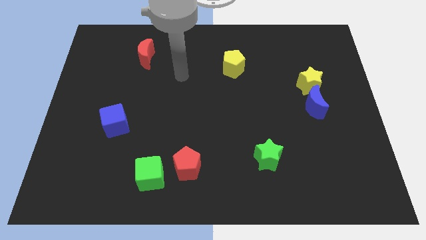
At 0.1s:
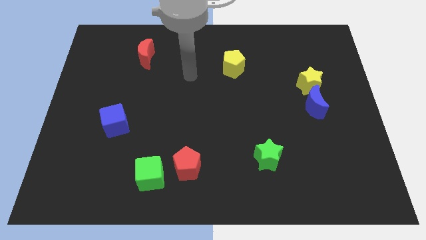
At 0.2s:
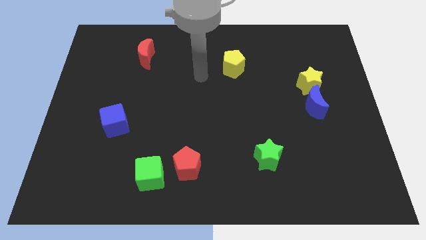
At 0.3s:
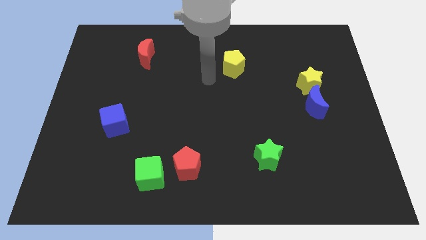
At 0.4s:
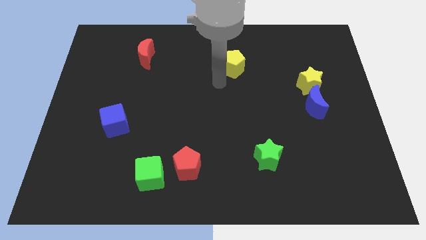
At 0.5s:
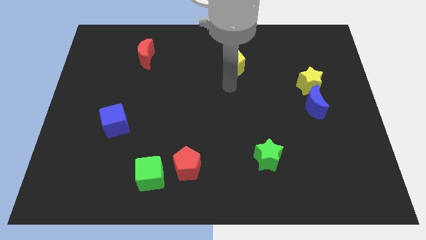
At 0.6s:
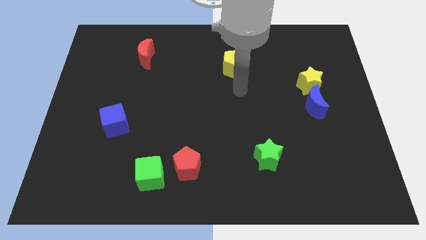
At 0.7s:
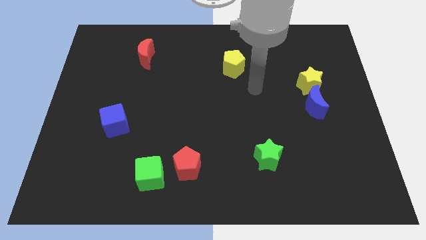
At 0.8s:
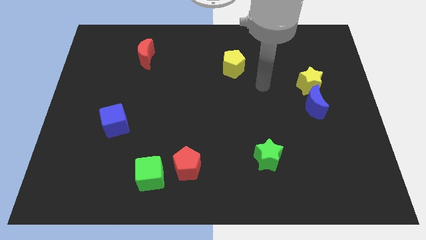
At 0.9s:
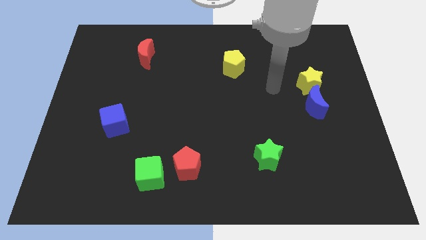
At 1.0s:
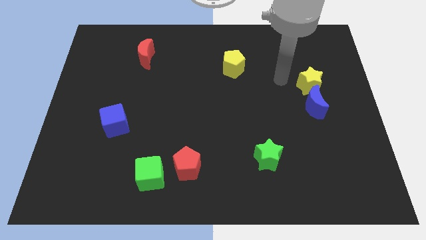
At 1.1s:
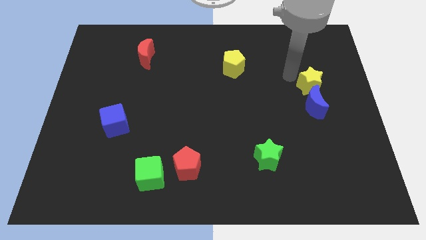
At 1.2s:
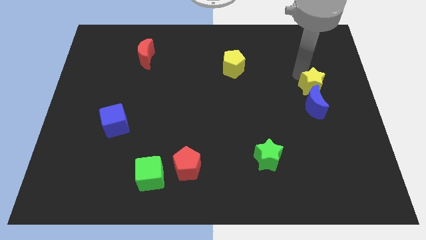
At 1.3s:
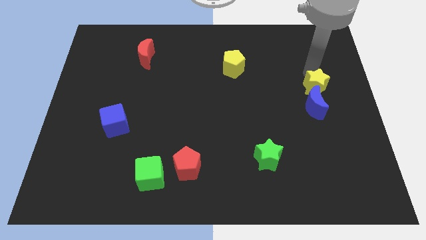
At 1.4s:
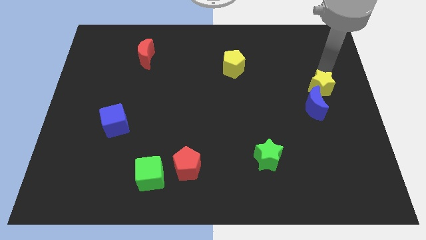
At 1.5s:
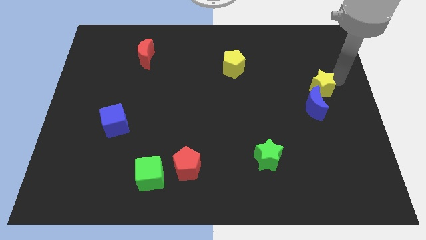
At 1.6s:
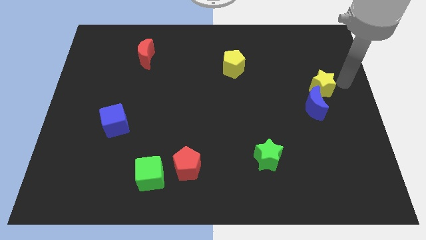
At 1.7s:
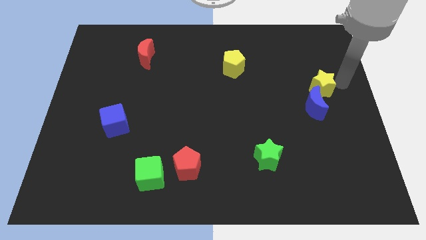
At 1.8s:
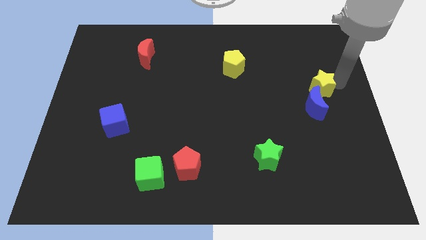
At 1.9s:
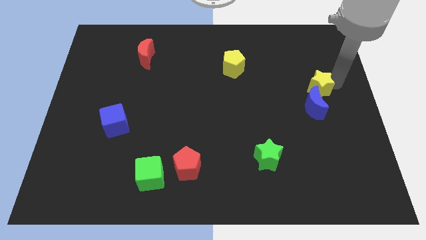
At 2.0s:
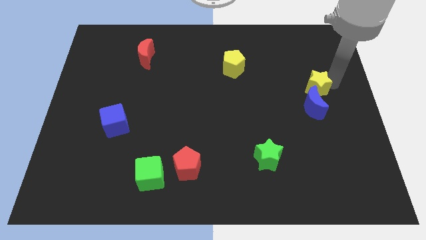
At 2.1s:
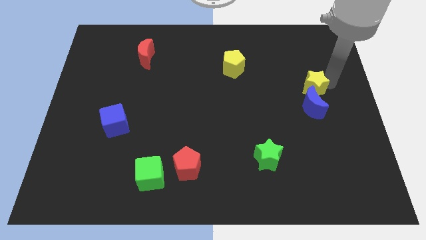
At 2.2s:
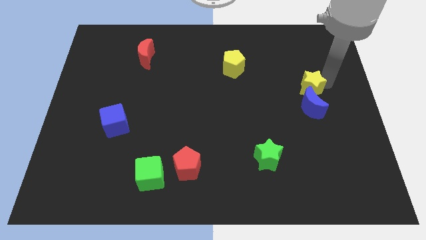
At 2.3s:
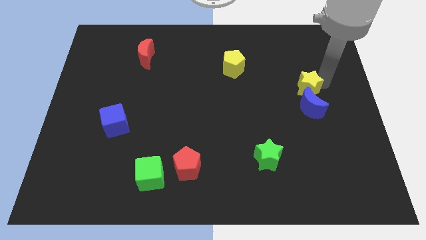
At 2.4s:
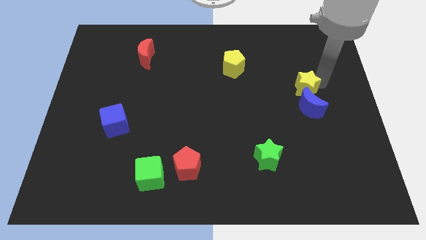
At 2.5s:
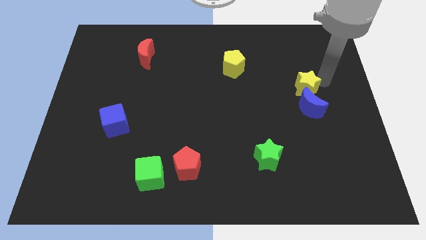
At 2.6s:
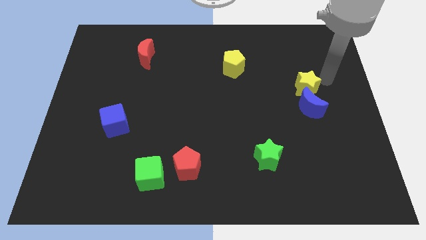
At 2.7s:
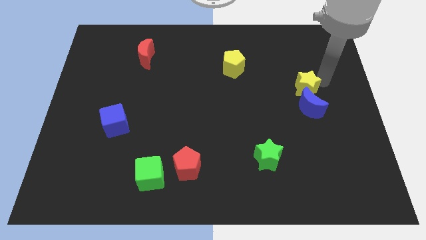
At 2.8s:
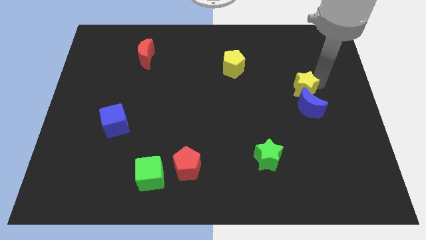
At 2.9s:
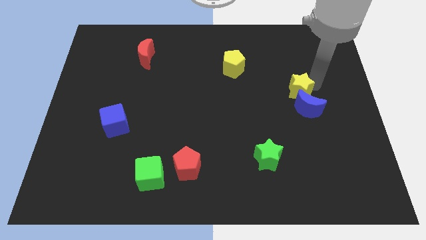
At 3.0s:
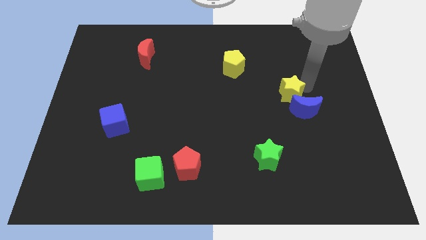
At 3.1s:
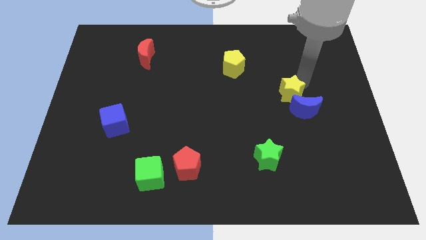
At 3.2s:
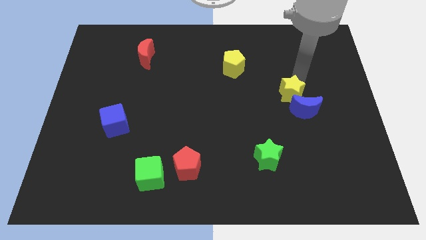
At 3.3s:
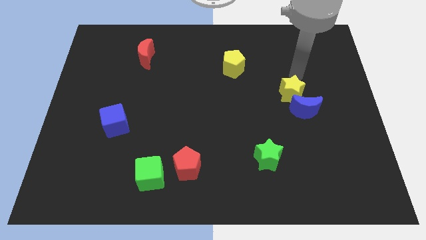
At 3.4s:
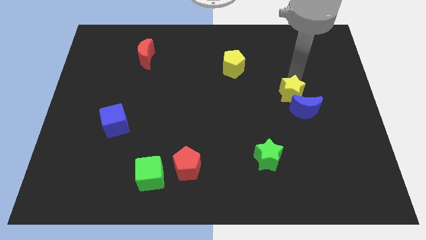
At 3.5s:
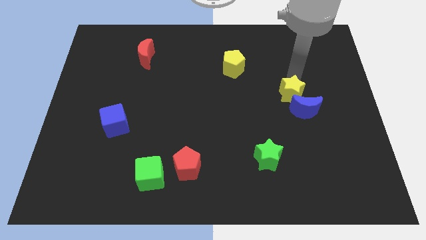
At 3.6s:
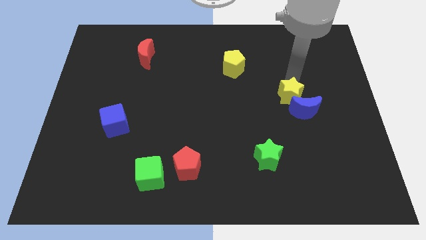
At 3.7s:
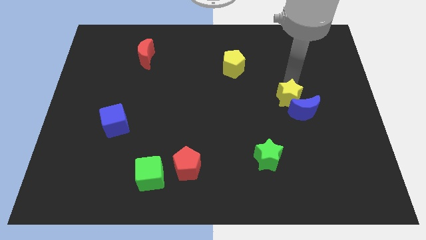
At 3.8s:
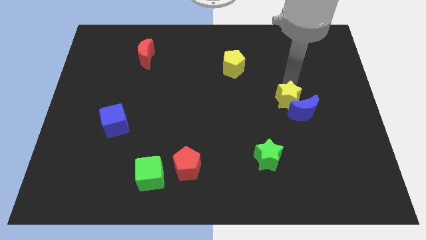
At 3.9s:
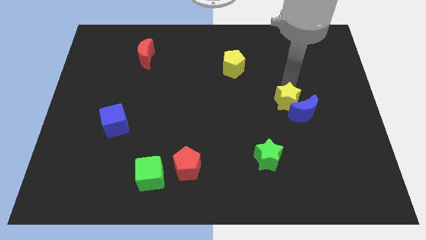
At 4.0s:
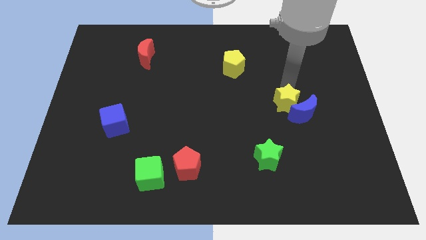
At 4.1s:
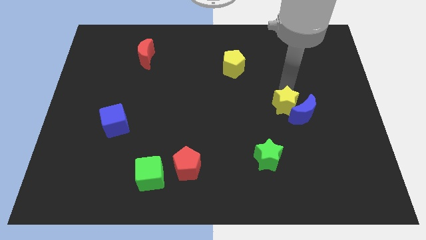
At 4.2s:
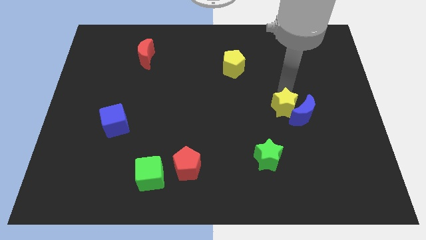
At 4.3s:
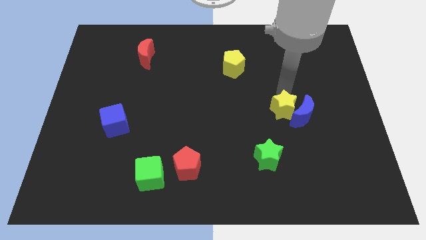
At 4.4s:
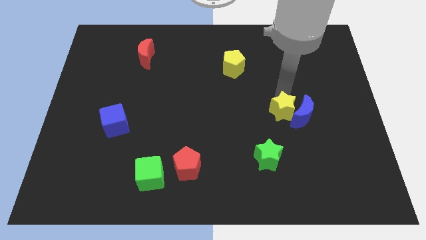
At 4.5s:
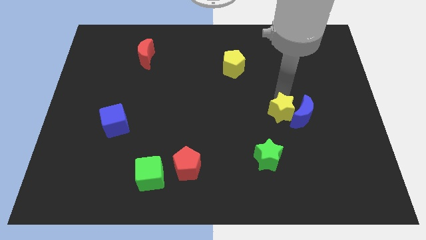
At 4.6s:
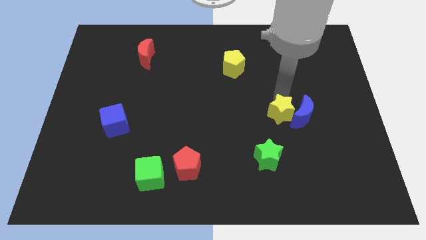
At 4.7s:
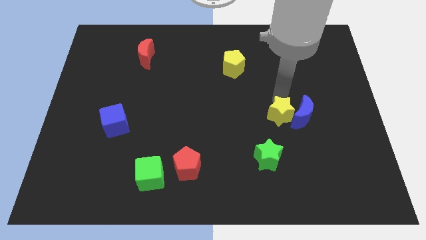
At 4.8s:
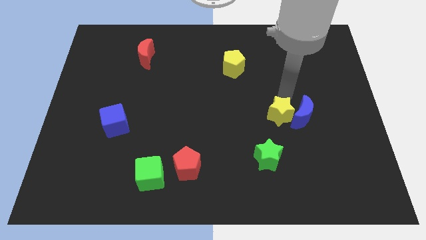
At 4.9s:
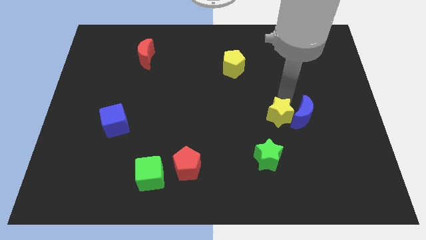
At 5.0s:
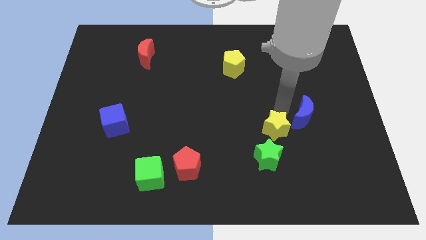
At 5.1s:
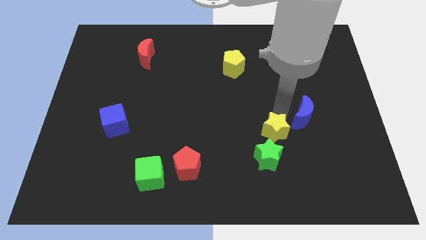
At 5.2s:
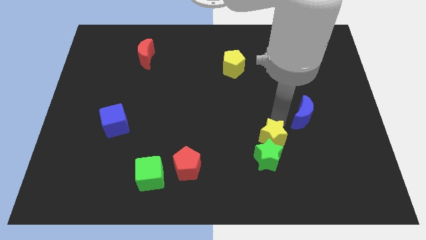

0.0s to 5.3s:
move the yellow star next to the green star

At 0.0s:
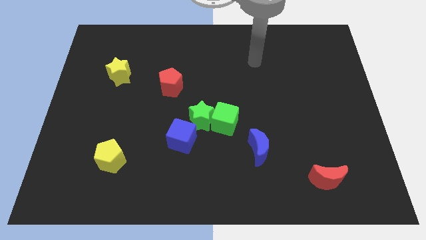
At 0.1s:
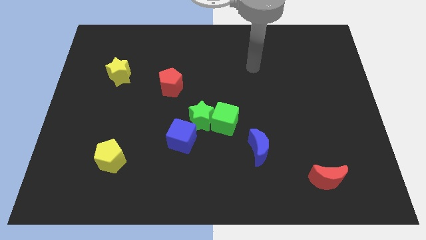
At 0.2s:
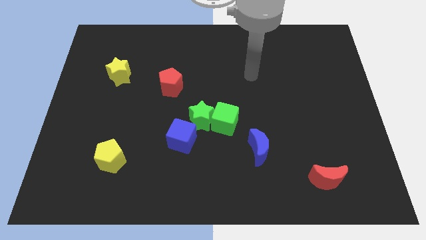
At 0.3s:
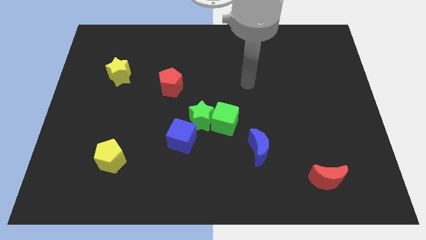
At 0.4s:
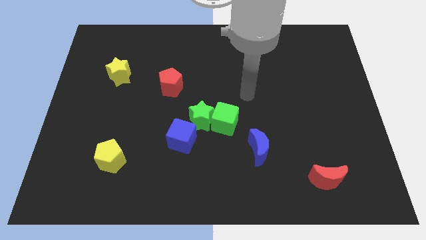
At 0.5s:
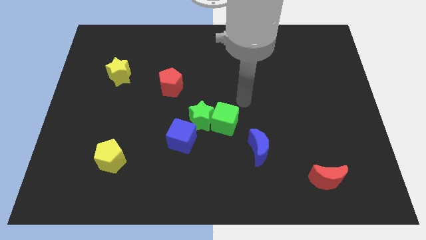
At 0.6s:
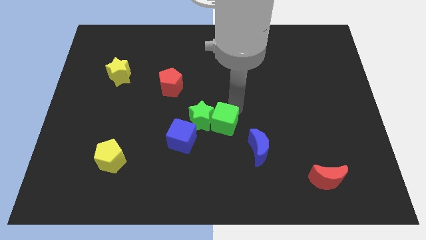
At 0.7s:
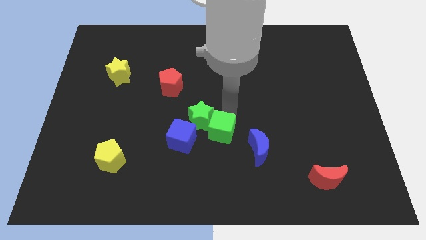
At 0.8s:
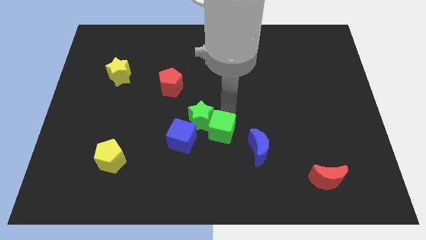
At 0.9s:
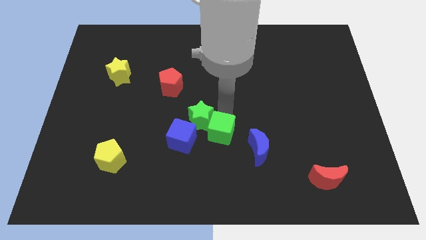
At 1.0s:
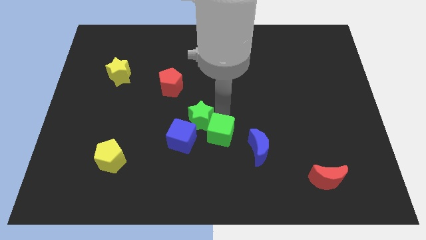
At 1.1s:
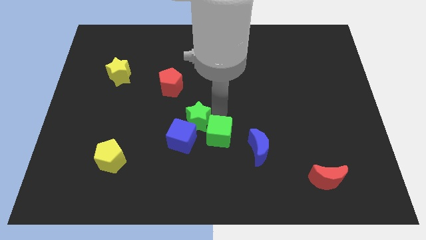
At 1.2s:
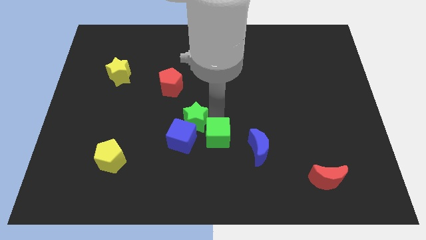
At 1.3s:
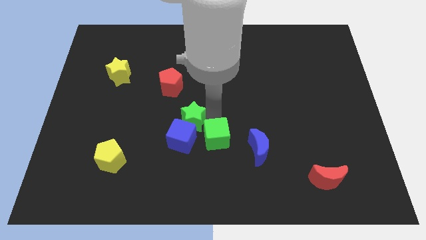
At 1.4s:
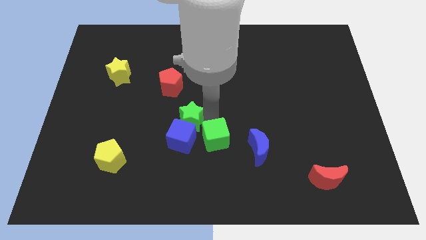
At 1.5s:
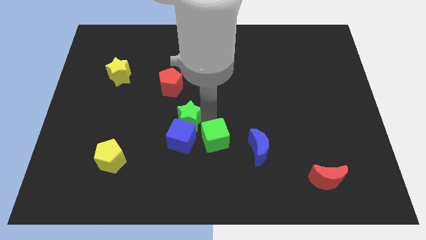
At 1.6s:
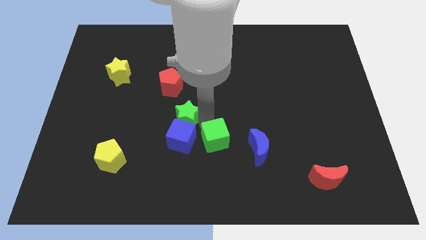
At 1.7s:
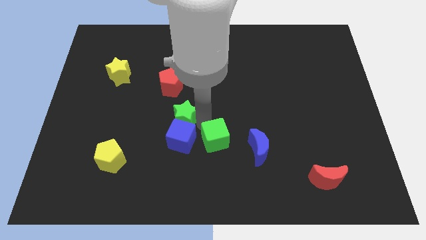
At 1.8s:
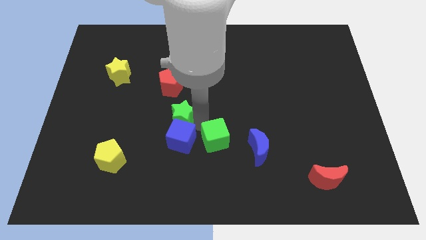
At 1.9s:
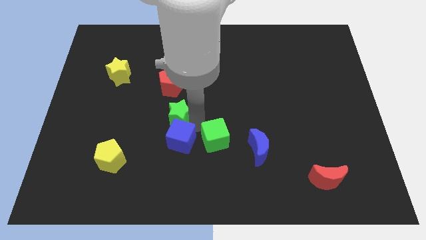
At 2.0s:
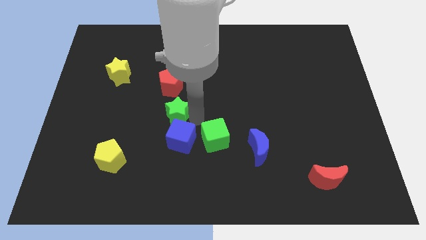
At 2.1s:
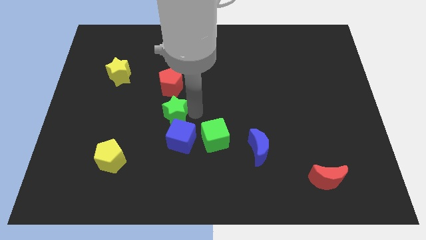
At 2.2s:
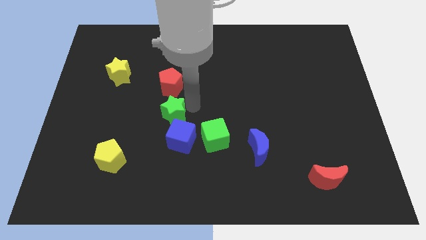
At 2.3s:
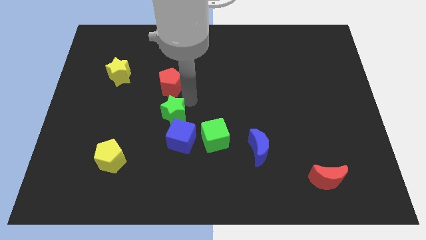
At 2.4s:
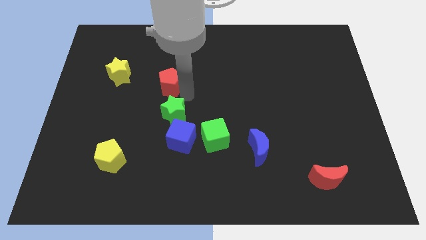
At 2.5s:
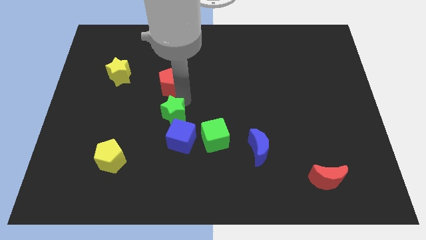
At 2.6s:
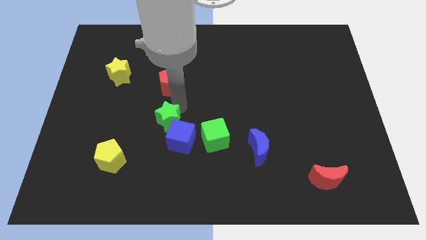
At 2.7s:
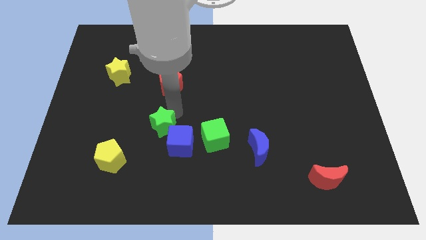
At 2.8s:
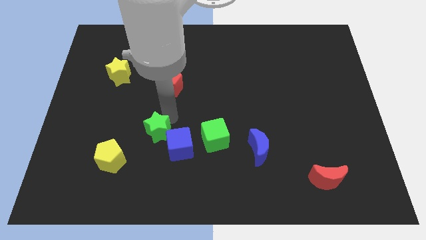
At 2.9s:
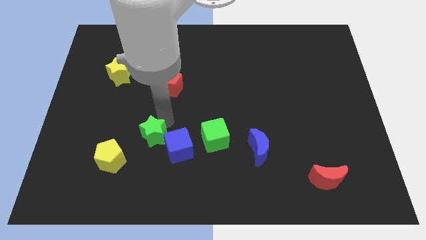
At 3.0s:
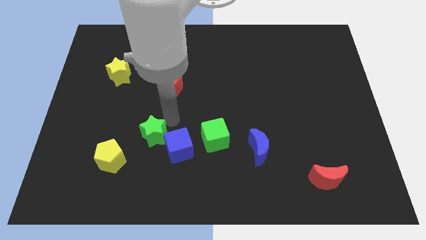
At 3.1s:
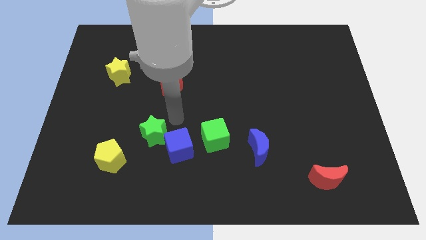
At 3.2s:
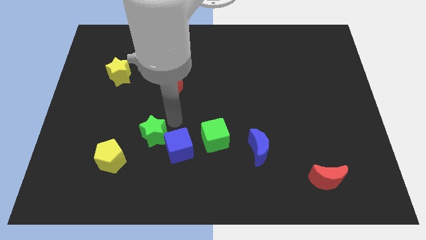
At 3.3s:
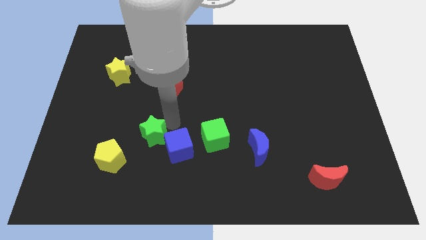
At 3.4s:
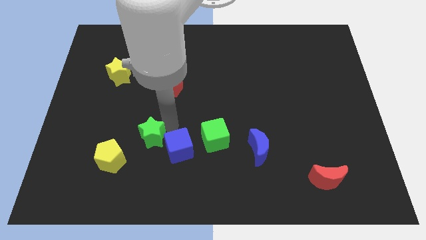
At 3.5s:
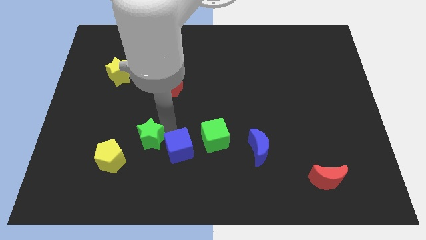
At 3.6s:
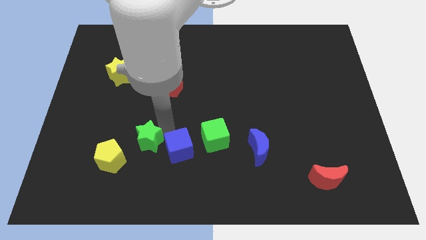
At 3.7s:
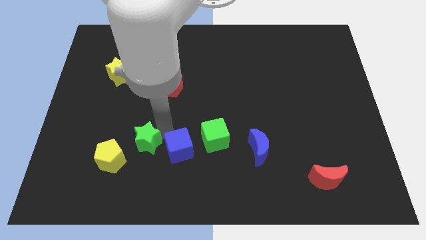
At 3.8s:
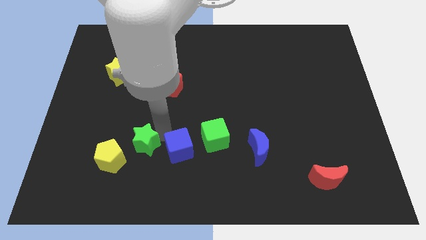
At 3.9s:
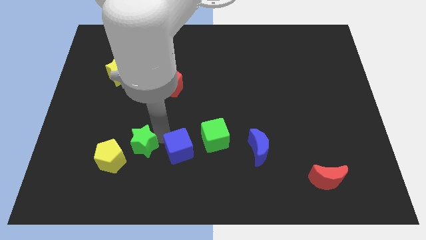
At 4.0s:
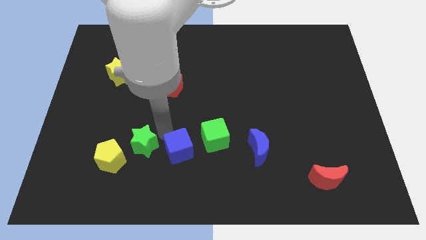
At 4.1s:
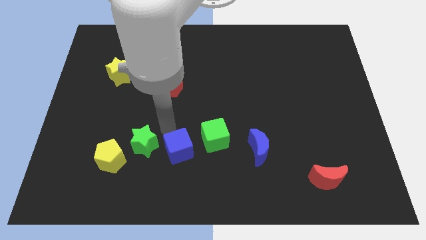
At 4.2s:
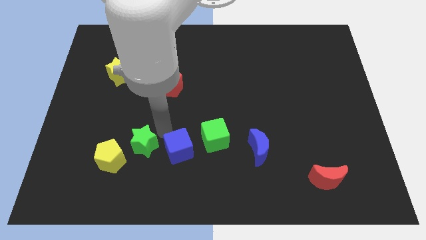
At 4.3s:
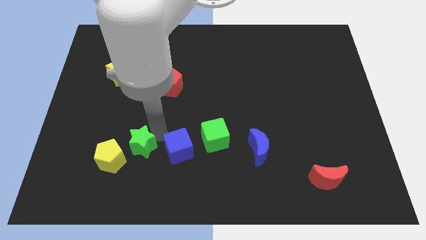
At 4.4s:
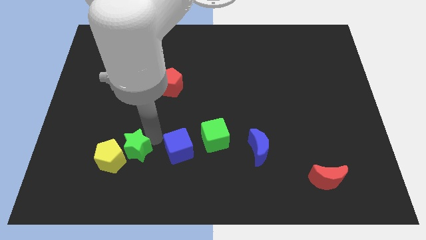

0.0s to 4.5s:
move the green star towards the yellow pentagon
